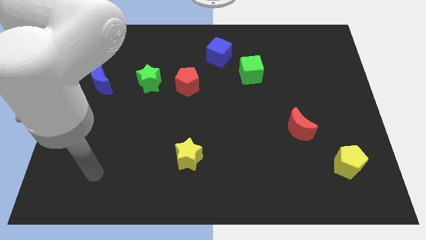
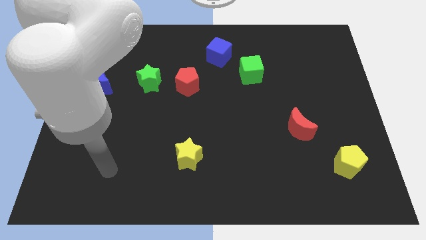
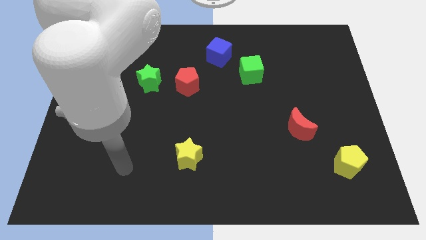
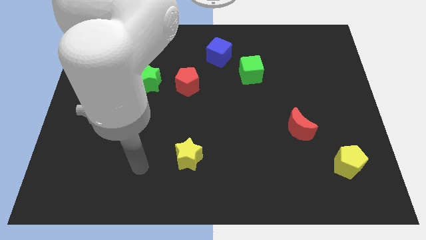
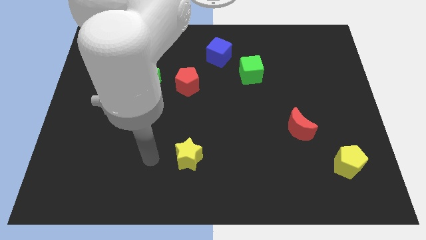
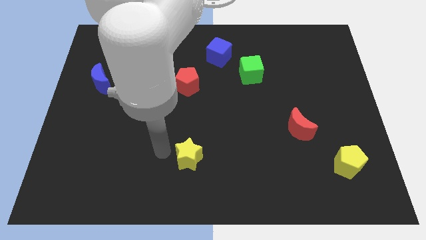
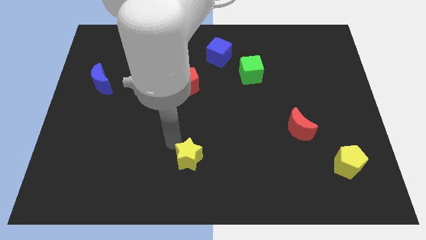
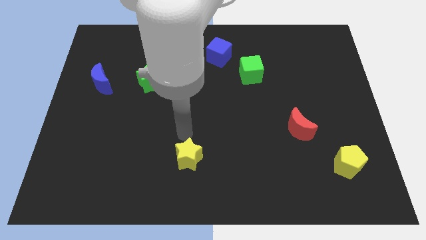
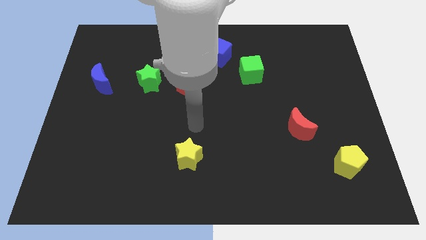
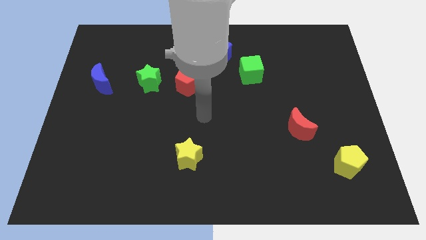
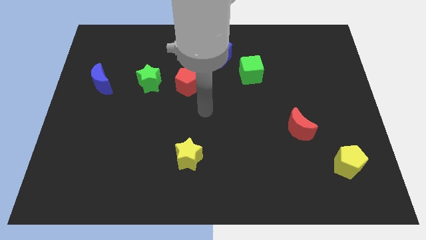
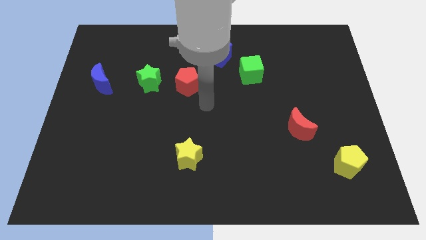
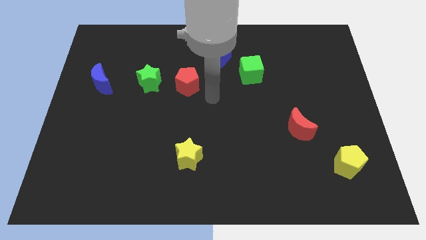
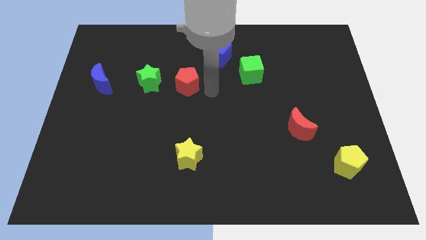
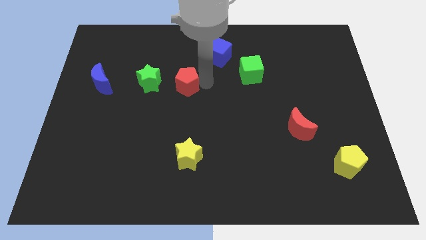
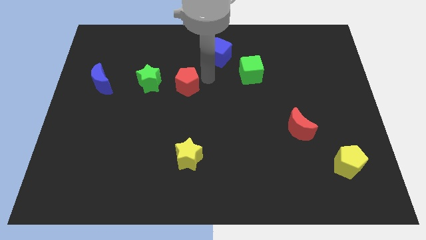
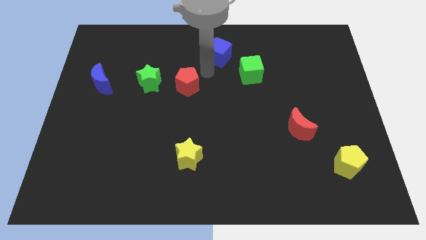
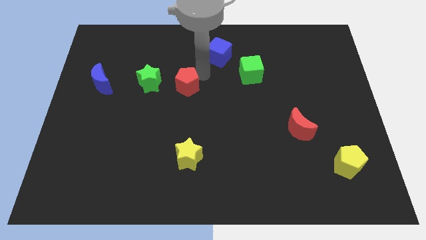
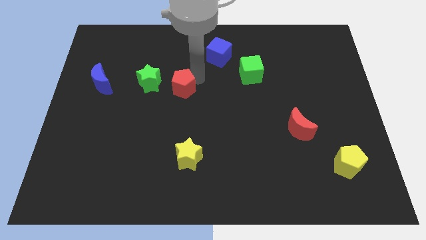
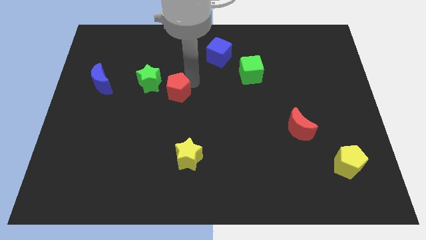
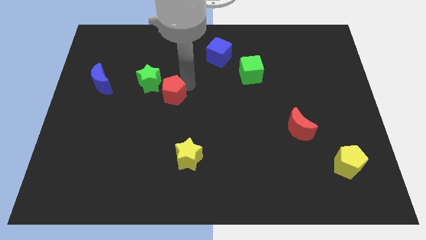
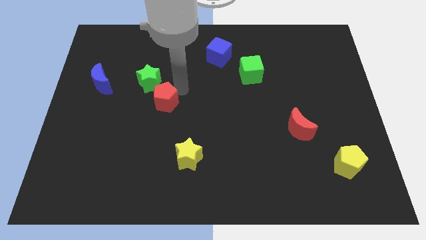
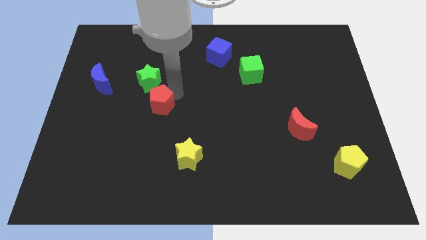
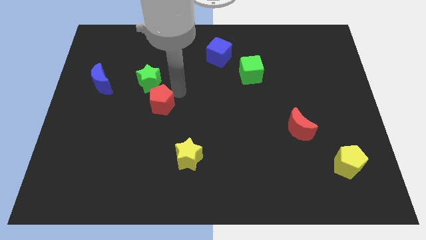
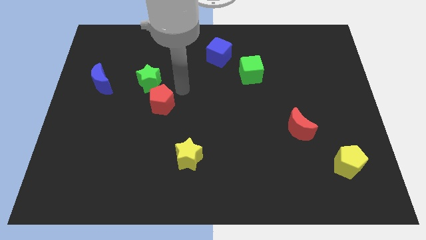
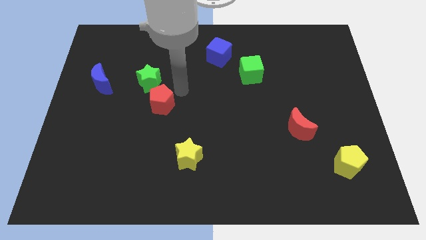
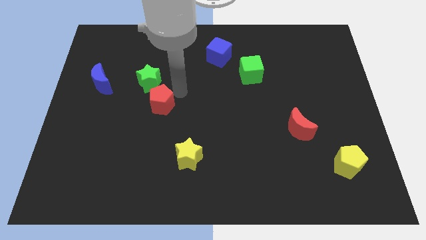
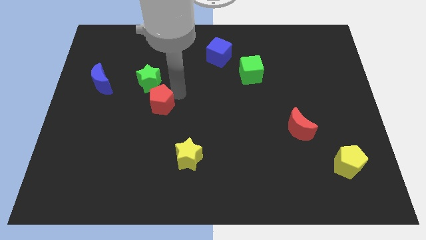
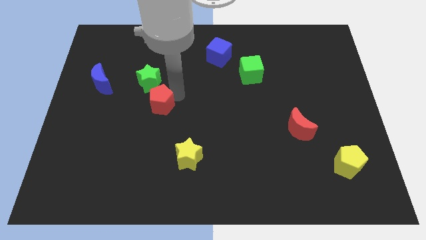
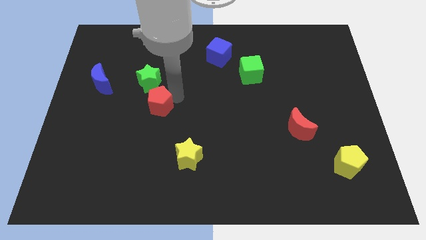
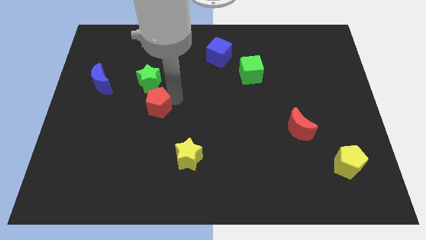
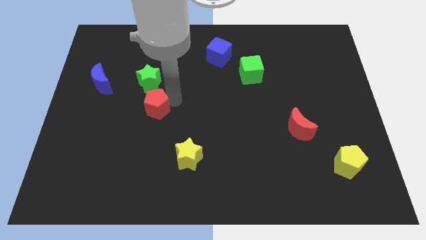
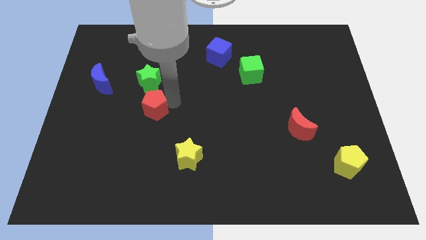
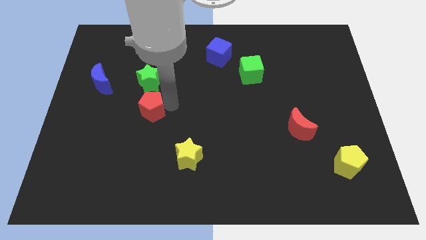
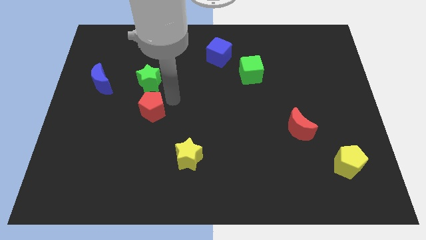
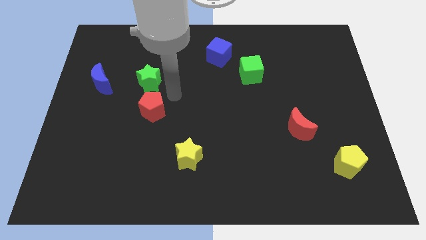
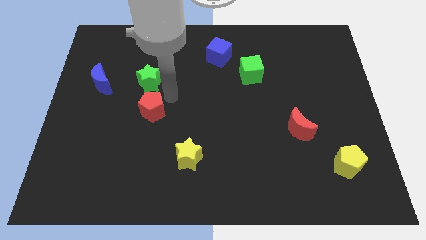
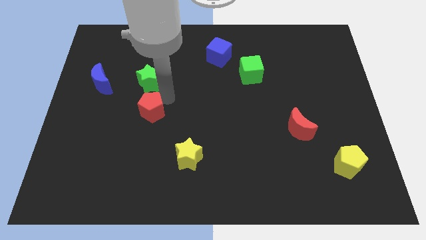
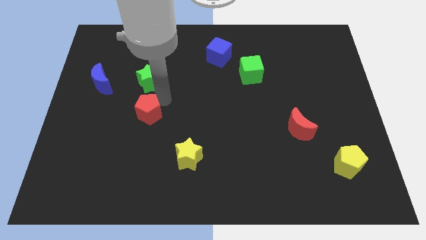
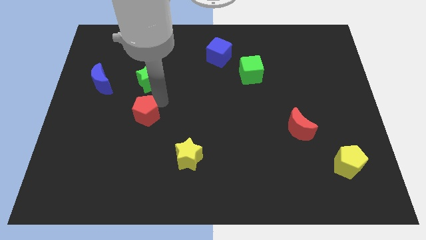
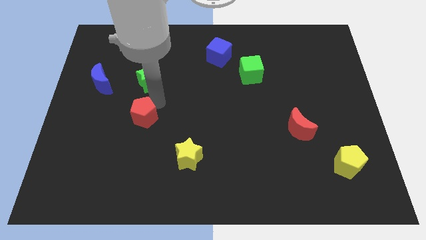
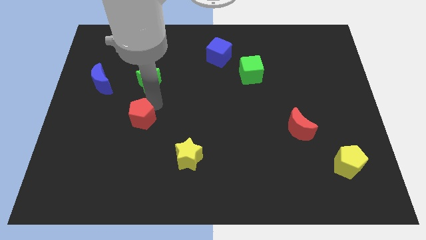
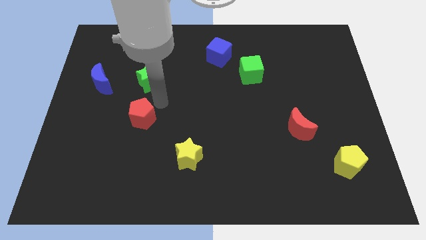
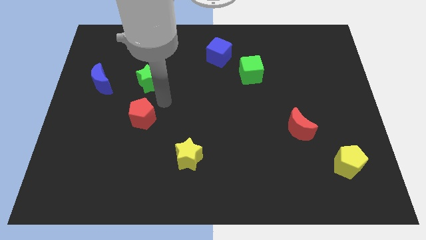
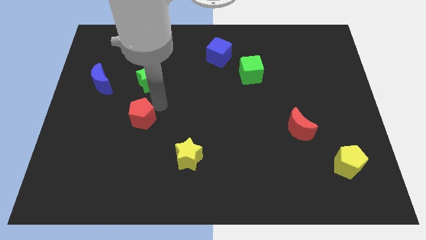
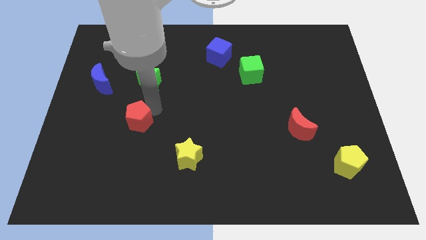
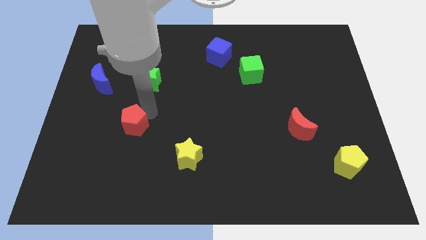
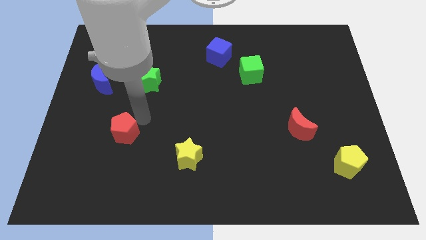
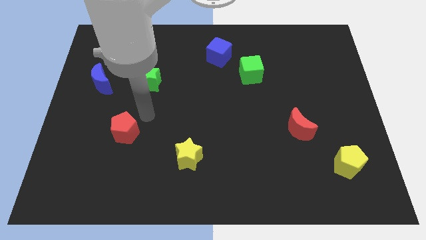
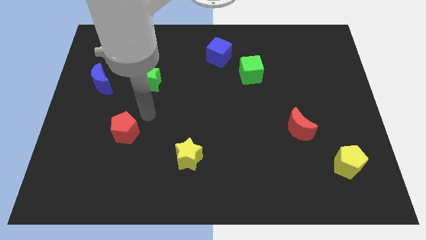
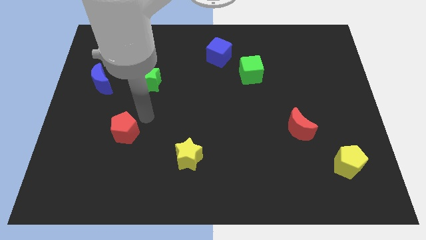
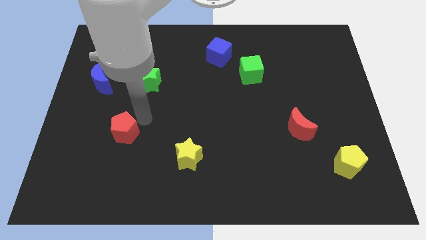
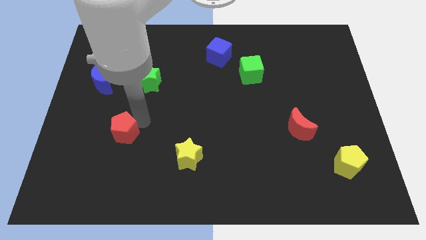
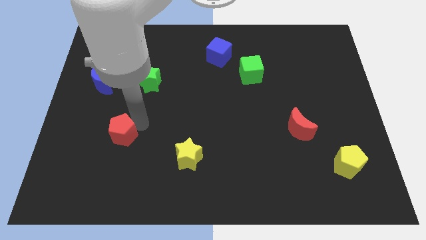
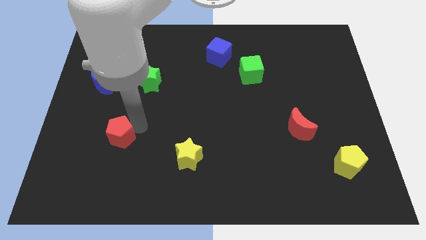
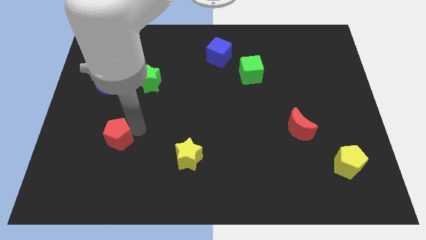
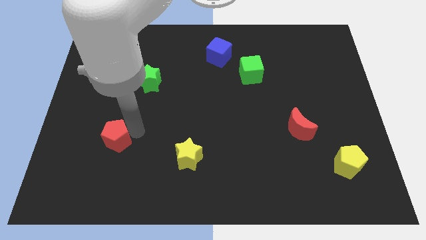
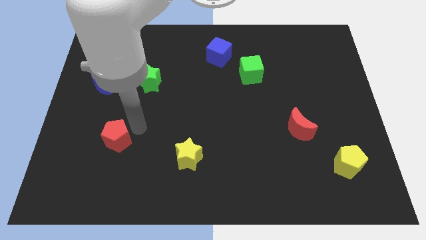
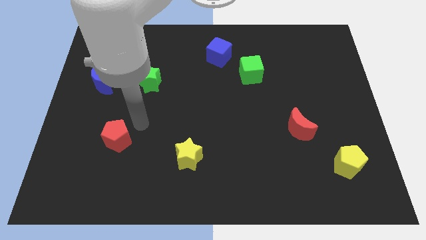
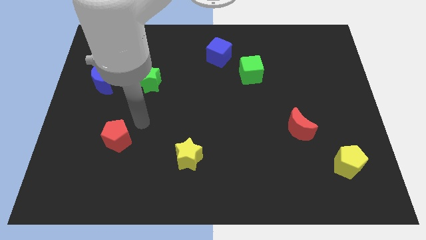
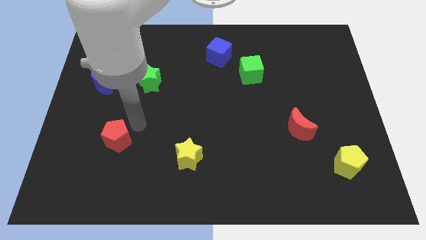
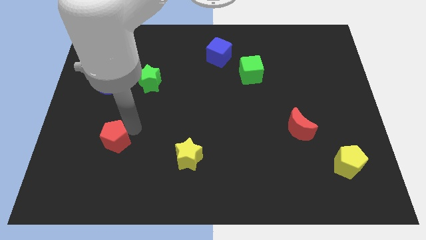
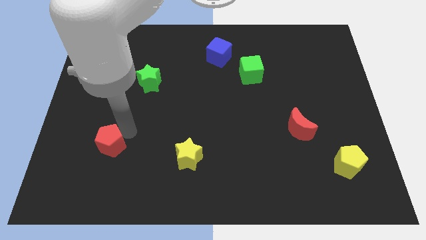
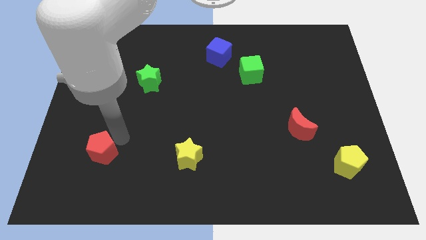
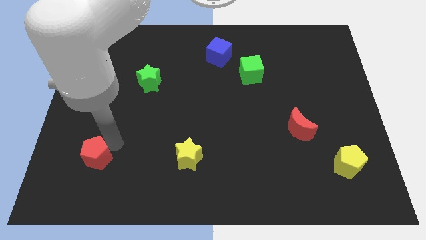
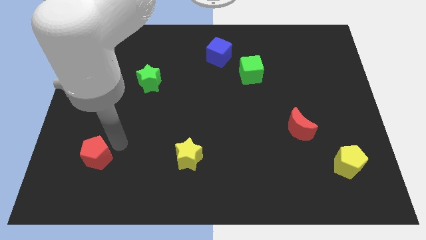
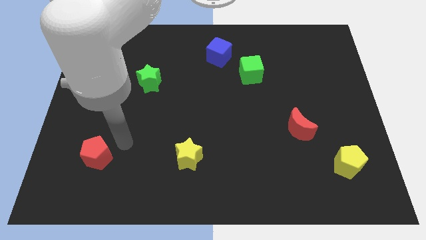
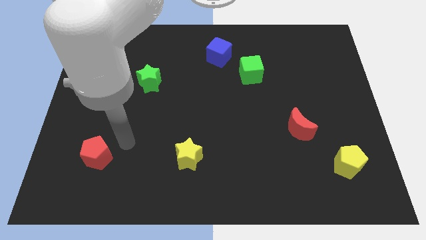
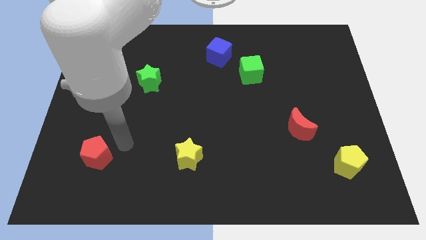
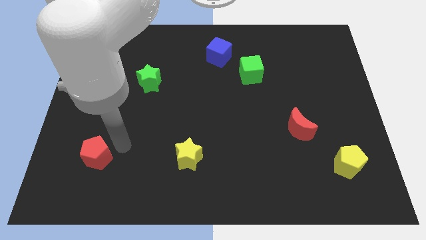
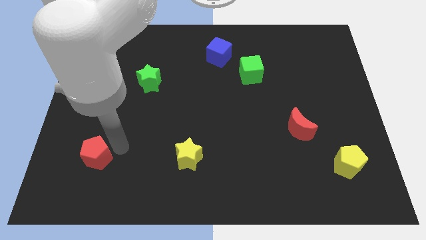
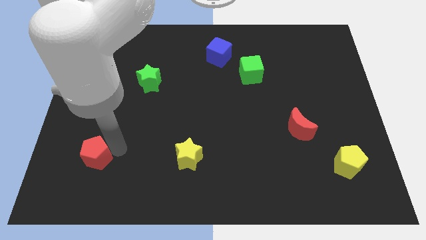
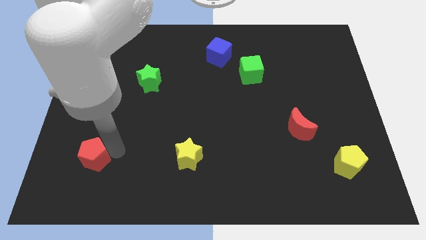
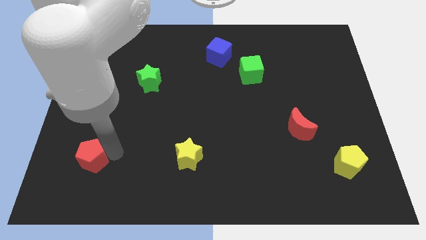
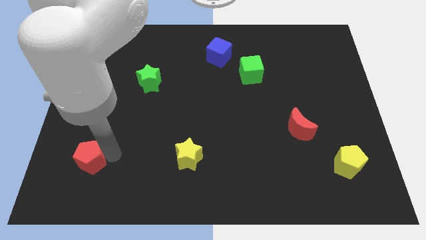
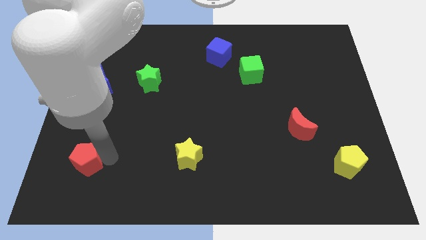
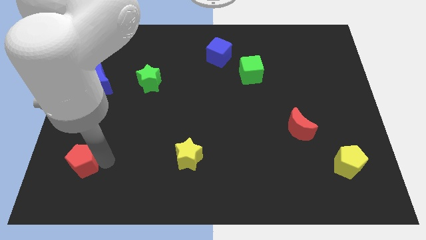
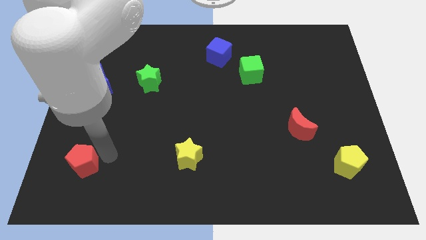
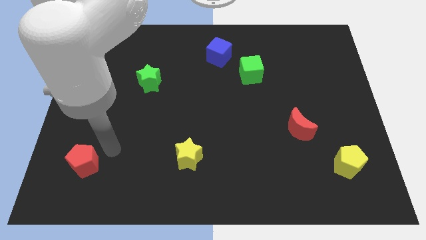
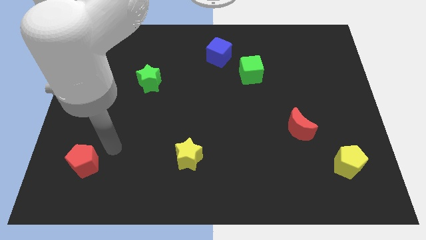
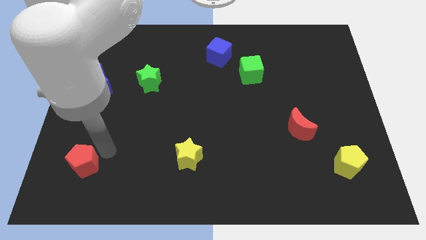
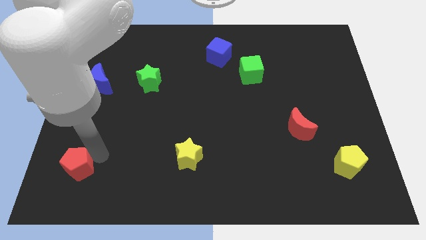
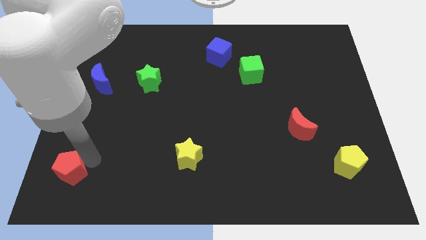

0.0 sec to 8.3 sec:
move the red pentagon to the lower left corner
